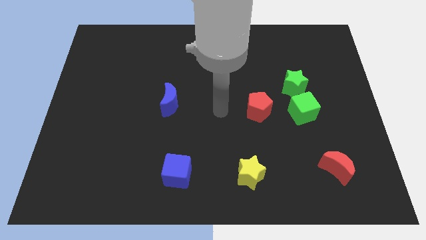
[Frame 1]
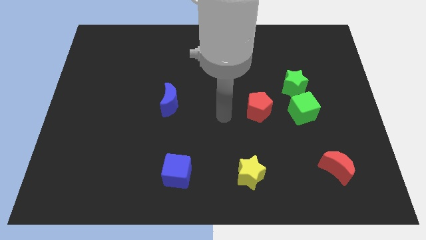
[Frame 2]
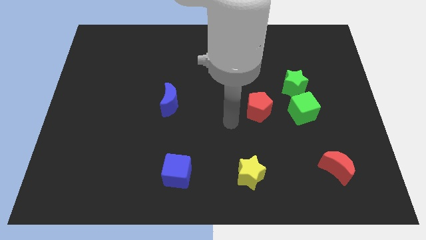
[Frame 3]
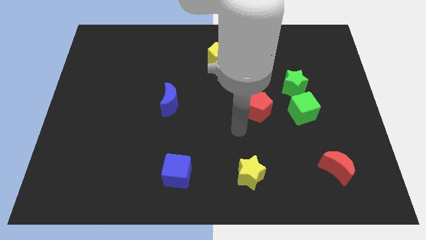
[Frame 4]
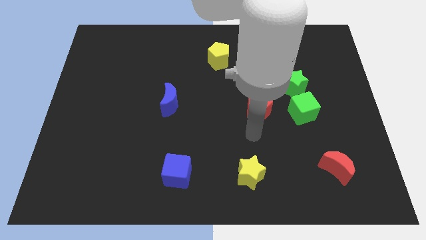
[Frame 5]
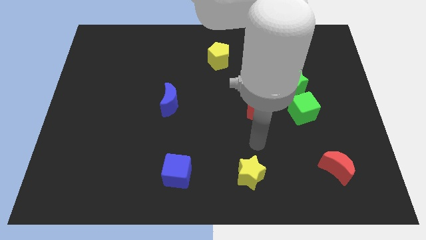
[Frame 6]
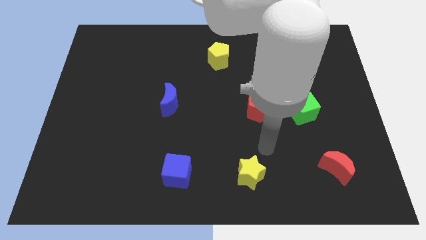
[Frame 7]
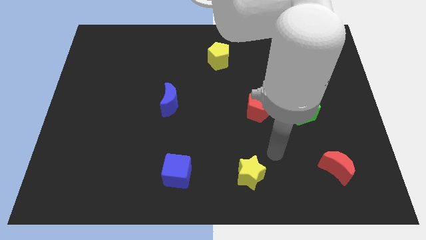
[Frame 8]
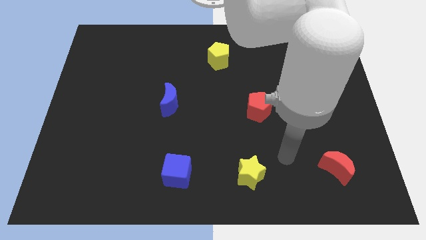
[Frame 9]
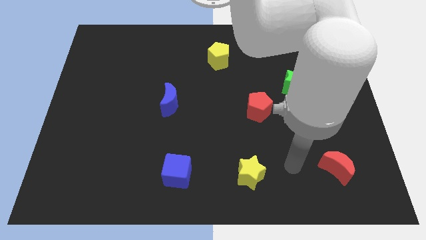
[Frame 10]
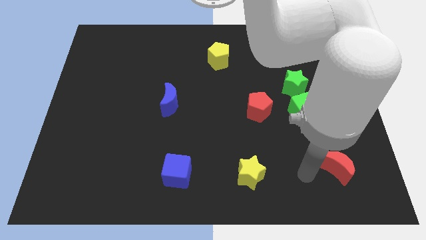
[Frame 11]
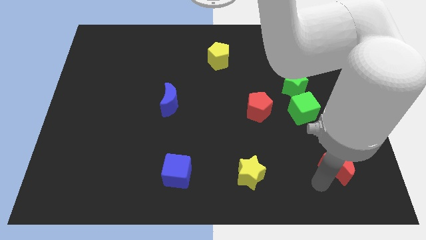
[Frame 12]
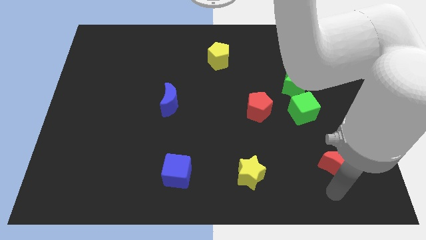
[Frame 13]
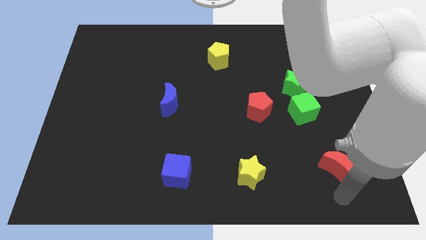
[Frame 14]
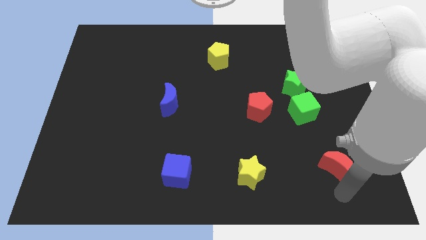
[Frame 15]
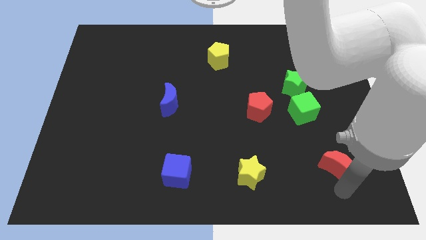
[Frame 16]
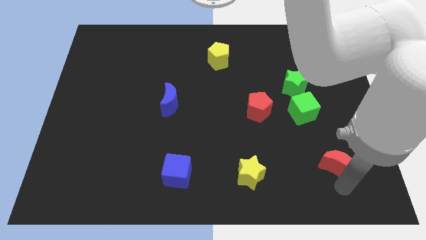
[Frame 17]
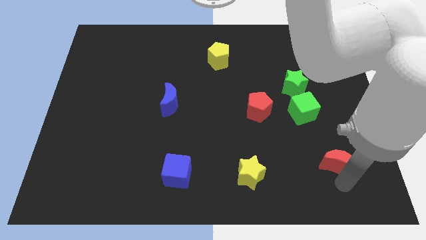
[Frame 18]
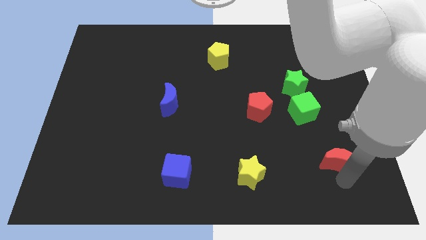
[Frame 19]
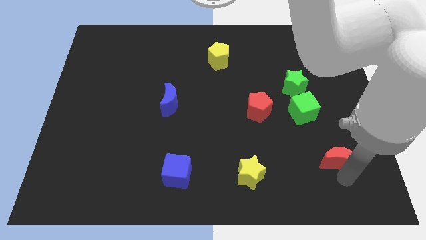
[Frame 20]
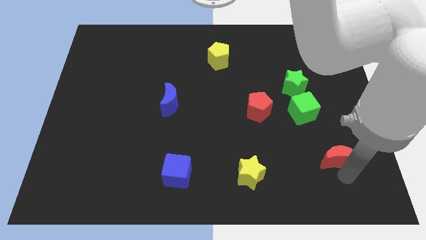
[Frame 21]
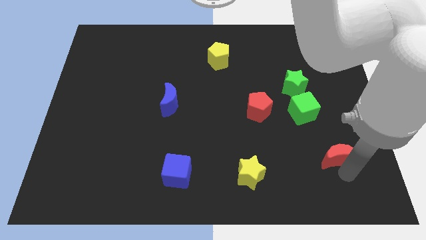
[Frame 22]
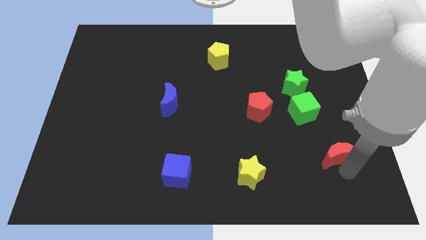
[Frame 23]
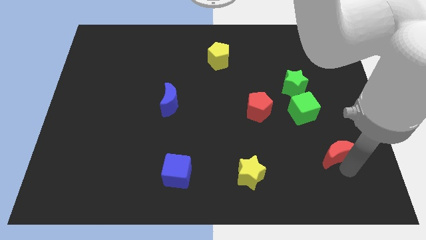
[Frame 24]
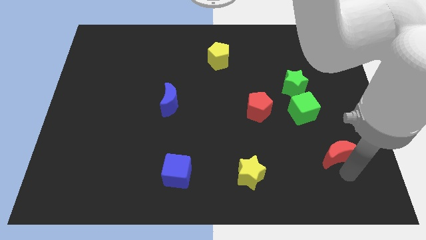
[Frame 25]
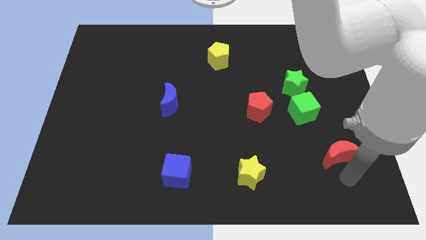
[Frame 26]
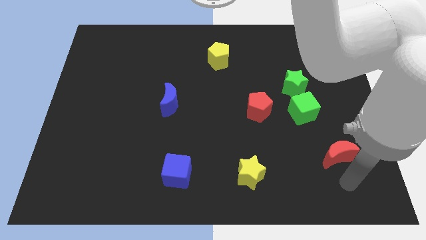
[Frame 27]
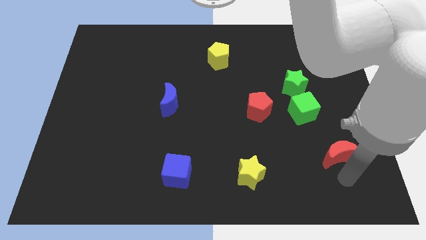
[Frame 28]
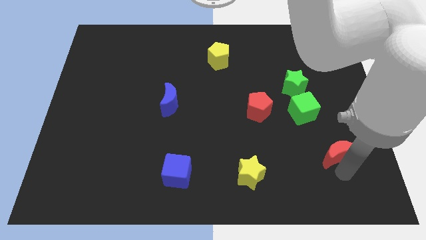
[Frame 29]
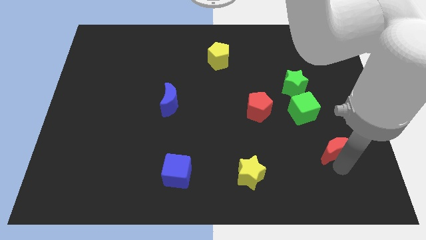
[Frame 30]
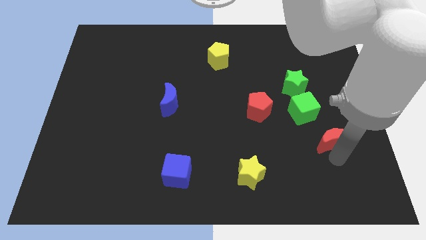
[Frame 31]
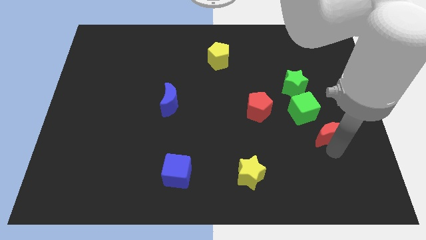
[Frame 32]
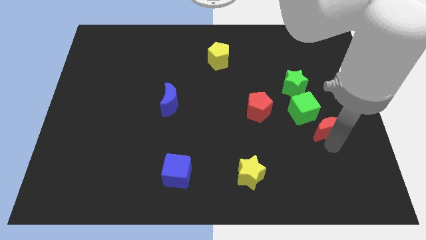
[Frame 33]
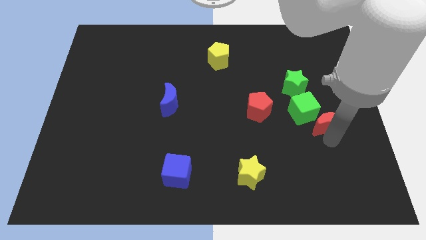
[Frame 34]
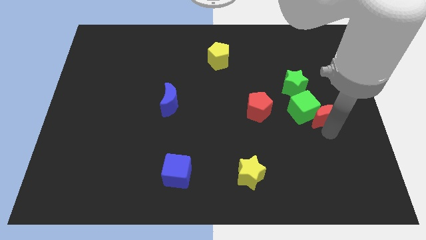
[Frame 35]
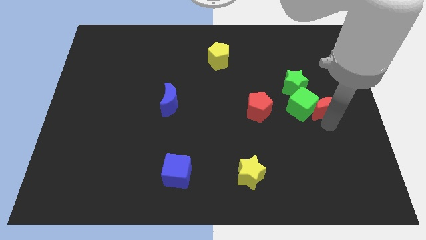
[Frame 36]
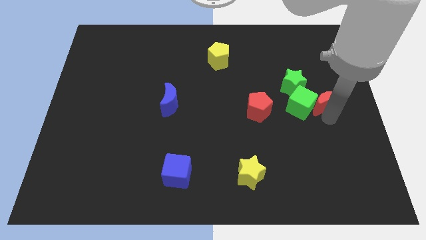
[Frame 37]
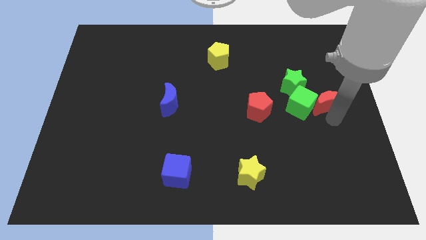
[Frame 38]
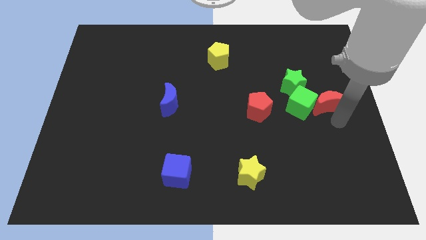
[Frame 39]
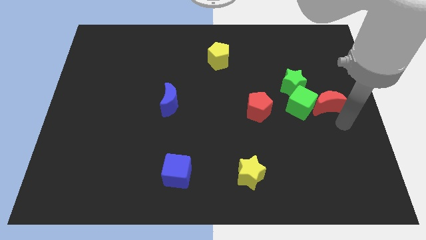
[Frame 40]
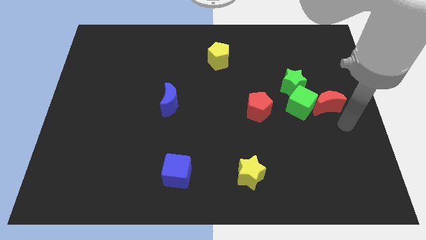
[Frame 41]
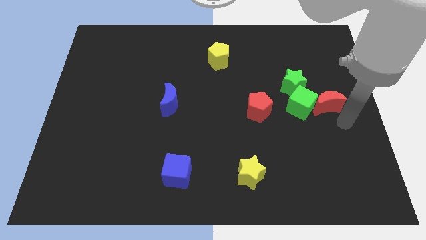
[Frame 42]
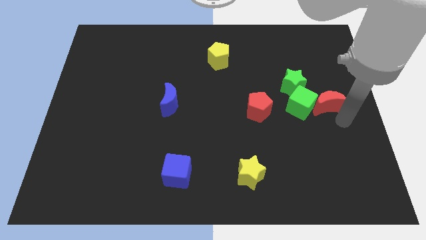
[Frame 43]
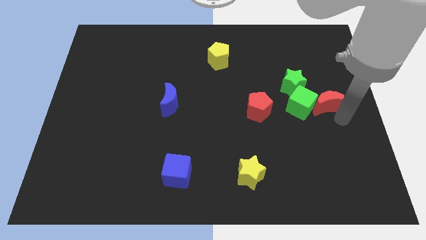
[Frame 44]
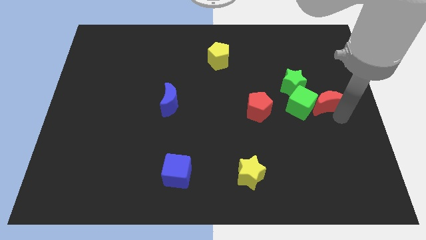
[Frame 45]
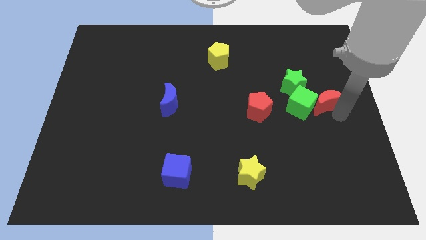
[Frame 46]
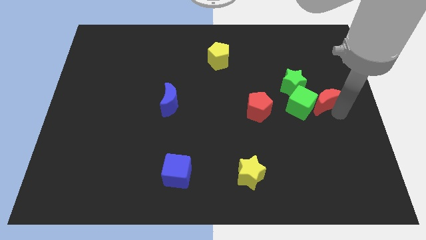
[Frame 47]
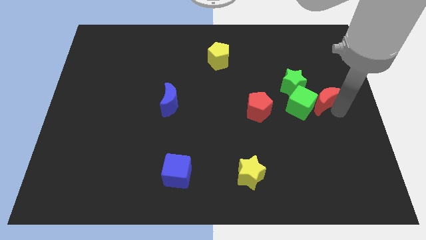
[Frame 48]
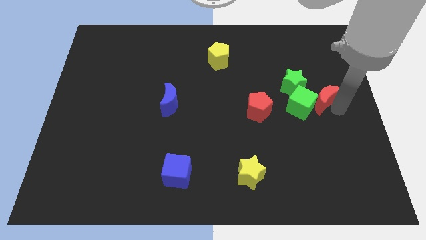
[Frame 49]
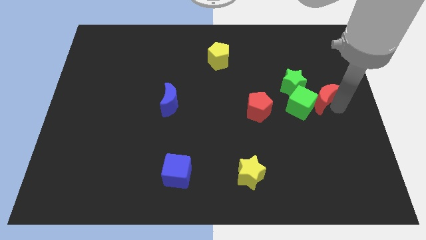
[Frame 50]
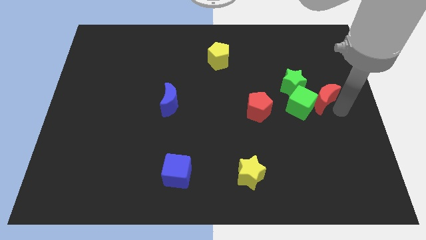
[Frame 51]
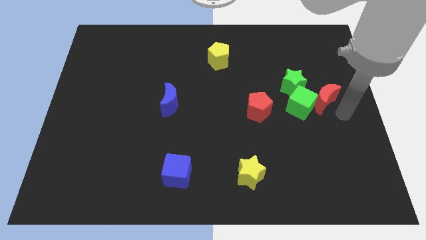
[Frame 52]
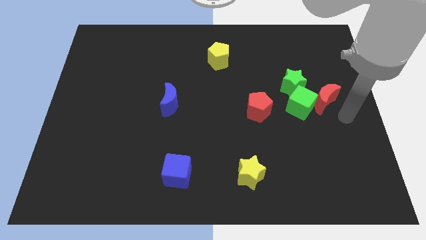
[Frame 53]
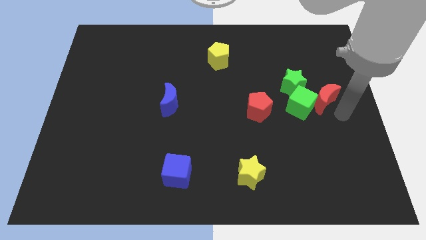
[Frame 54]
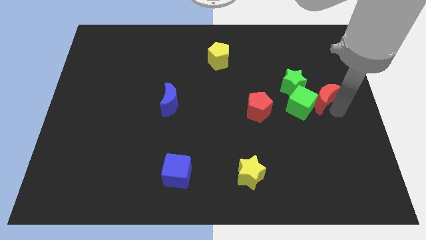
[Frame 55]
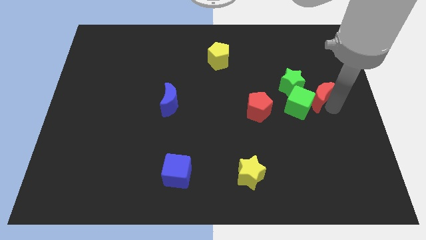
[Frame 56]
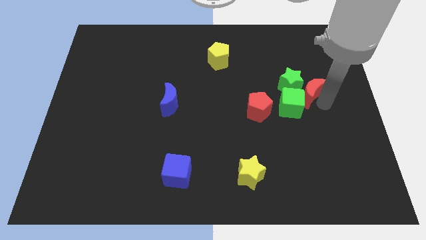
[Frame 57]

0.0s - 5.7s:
push the red moon up

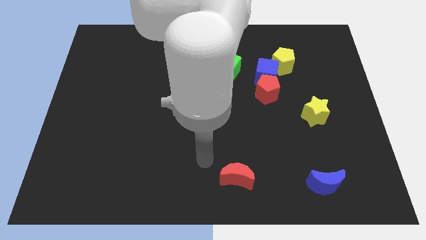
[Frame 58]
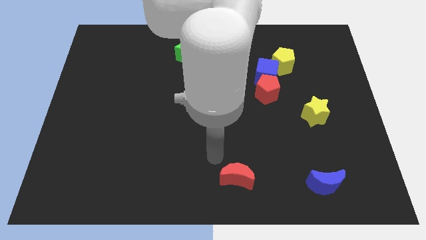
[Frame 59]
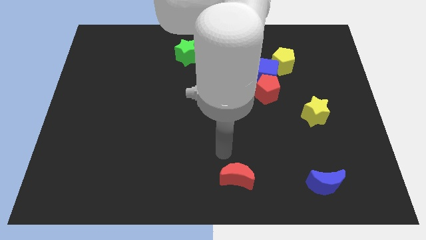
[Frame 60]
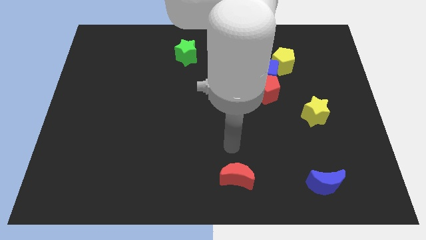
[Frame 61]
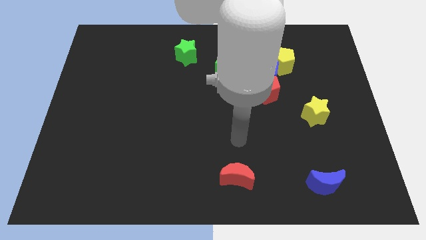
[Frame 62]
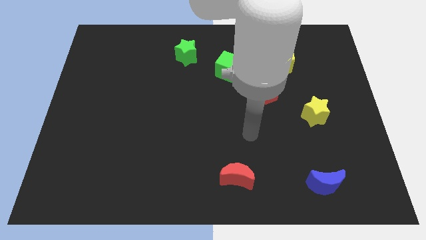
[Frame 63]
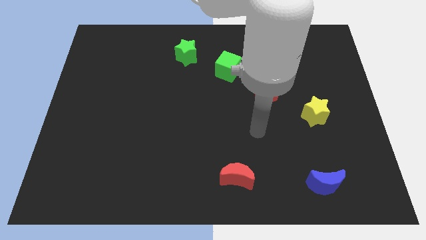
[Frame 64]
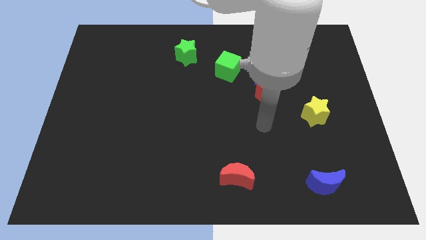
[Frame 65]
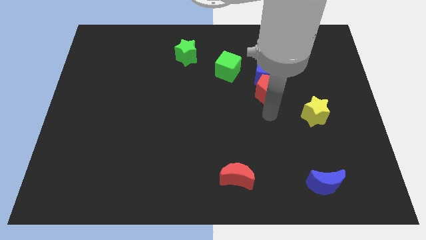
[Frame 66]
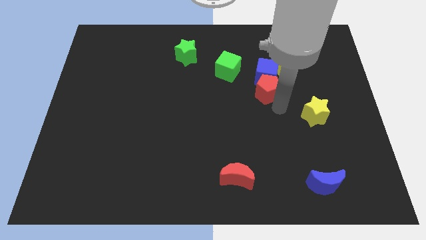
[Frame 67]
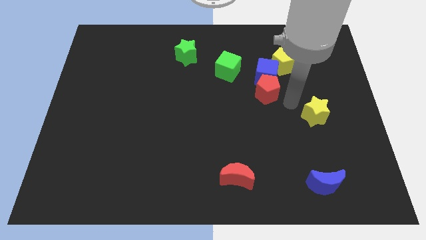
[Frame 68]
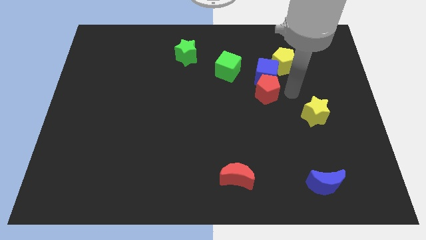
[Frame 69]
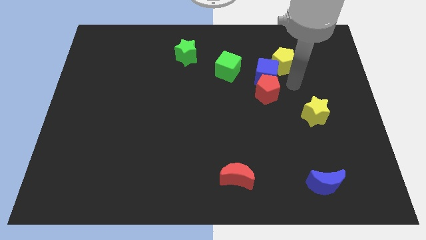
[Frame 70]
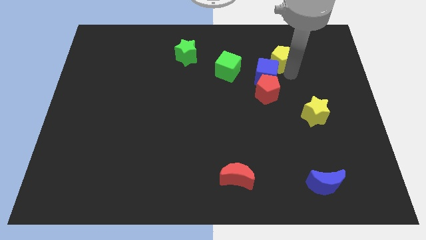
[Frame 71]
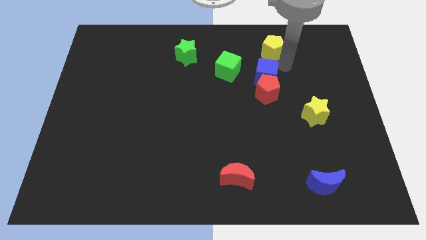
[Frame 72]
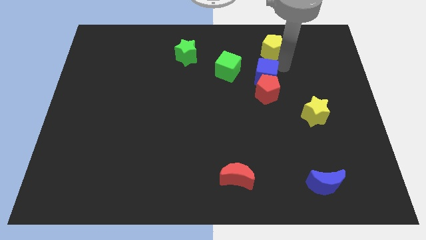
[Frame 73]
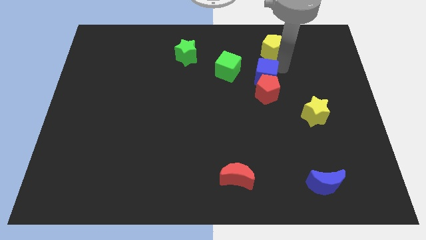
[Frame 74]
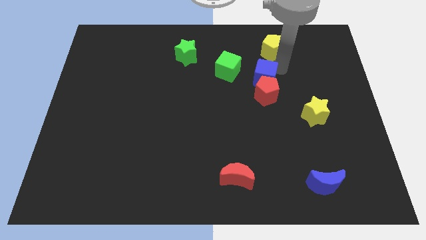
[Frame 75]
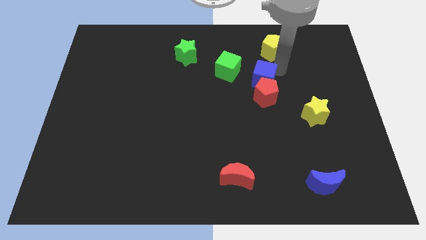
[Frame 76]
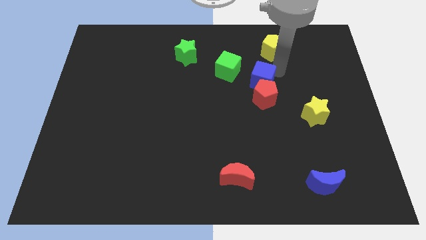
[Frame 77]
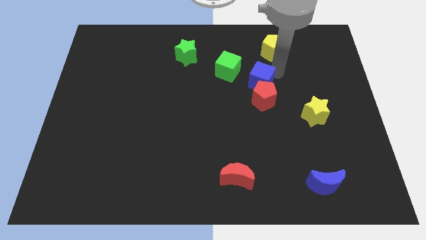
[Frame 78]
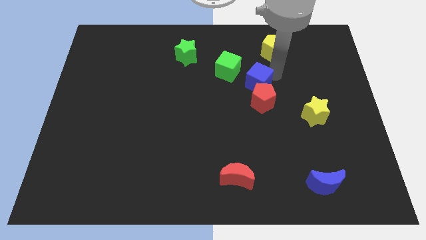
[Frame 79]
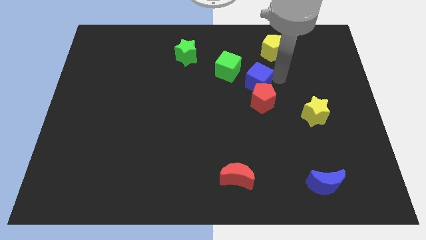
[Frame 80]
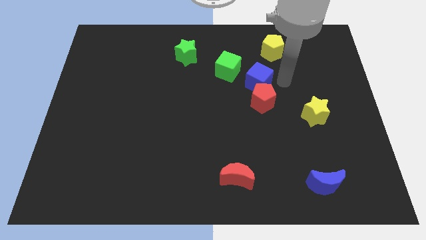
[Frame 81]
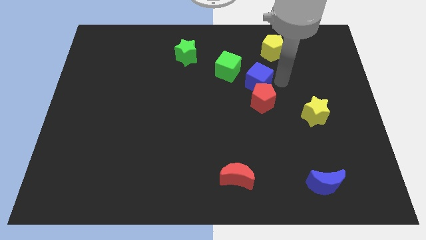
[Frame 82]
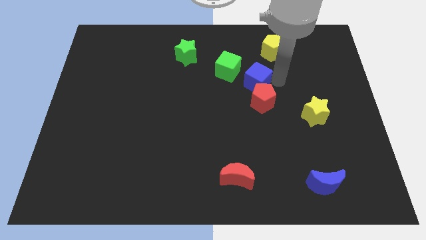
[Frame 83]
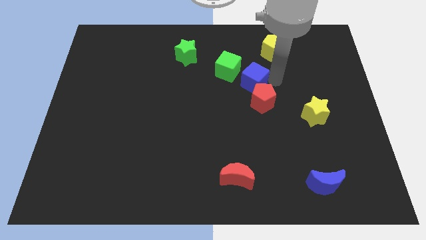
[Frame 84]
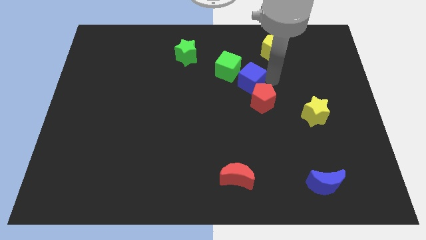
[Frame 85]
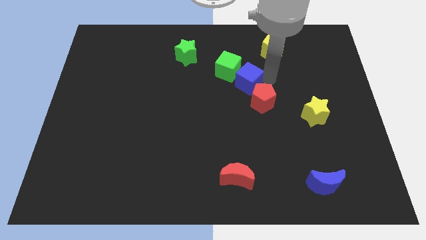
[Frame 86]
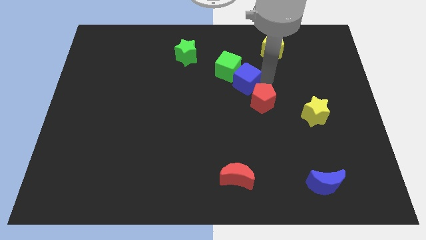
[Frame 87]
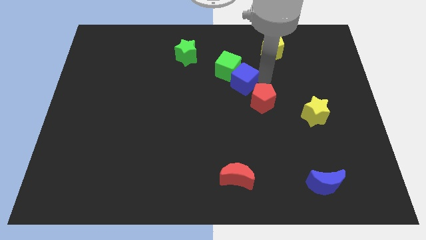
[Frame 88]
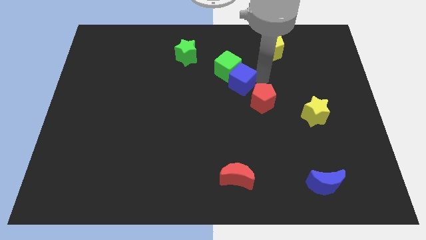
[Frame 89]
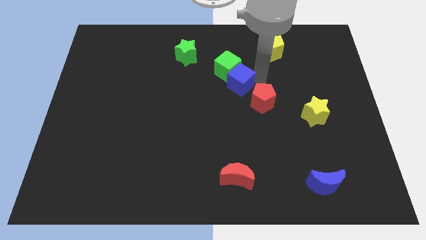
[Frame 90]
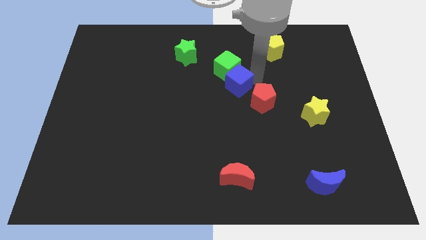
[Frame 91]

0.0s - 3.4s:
slightly push the blue cube left
